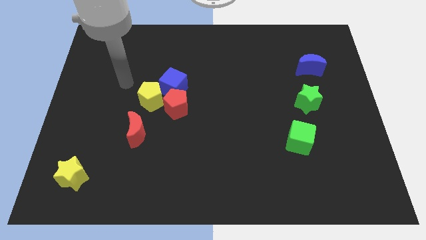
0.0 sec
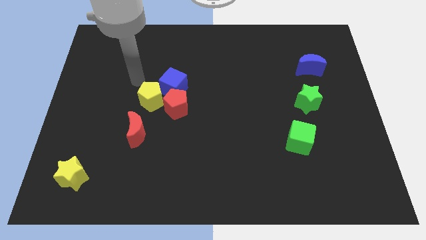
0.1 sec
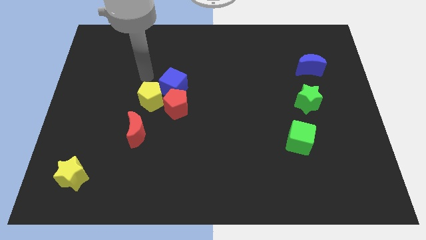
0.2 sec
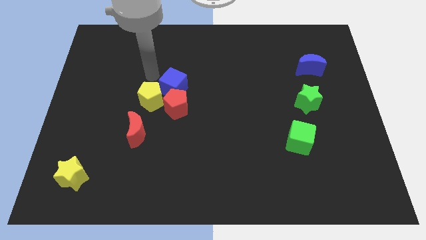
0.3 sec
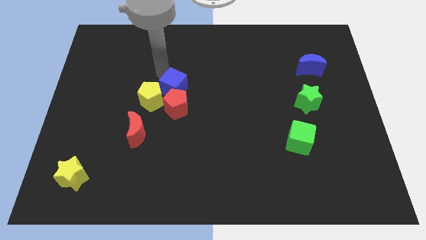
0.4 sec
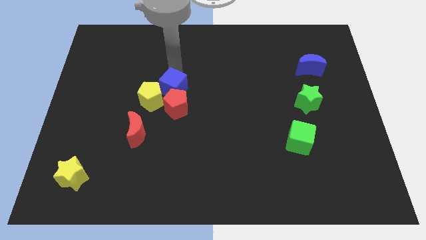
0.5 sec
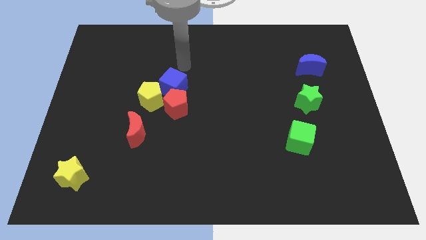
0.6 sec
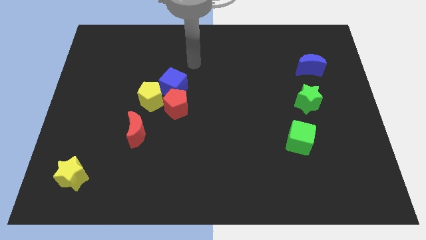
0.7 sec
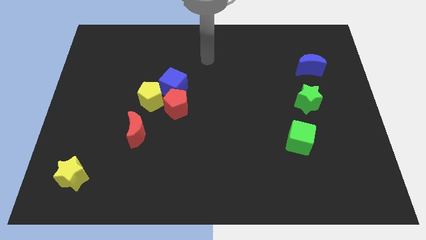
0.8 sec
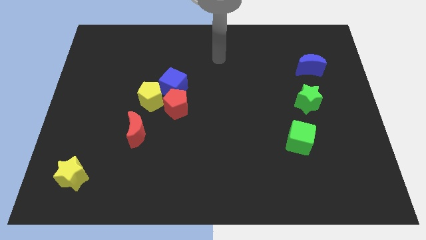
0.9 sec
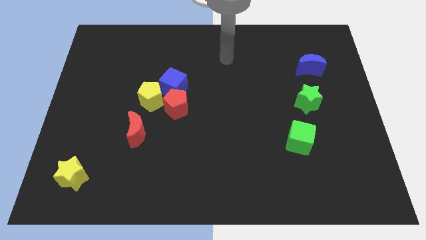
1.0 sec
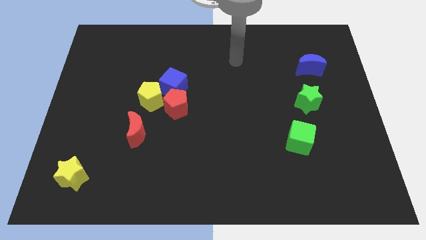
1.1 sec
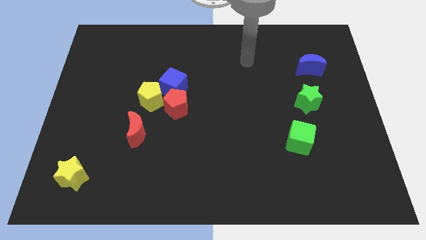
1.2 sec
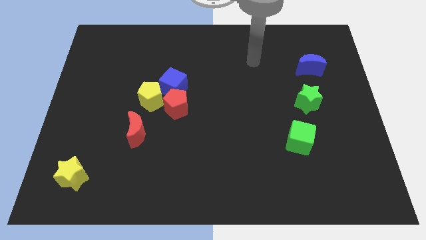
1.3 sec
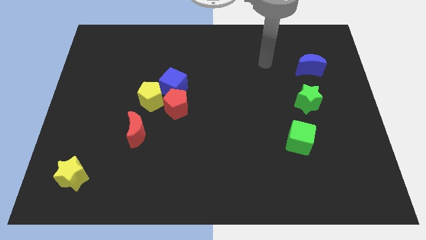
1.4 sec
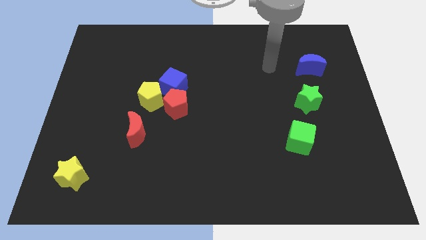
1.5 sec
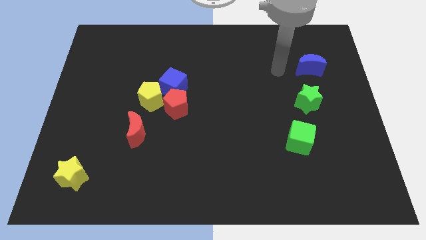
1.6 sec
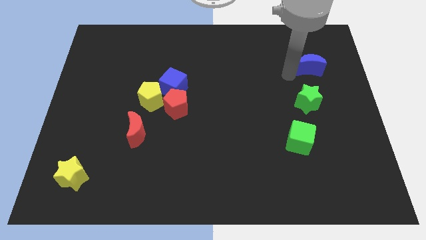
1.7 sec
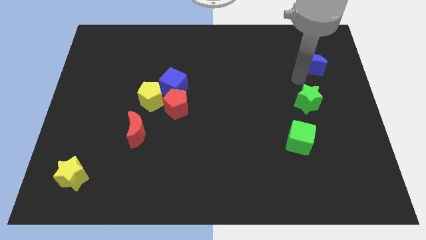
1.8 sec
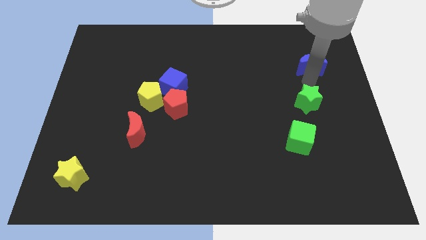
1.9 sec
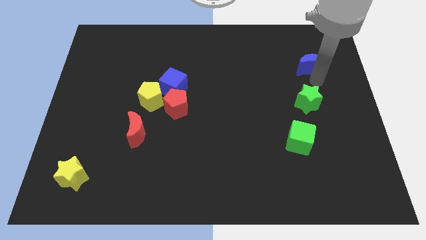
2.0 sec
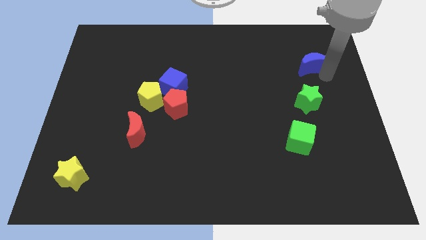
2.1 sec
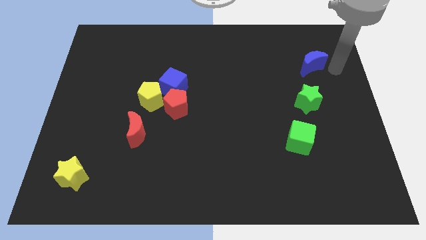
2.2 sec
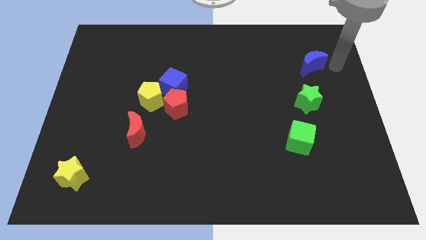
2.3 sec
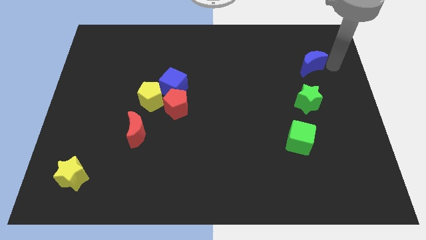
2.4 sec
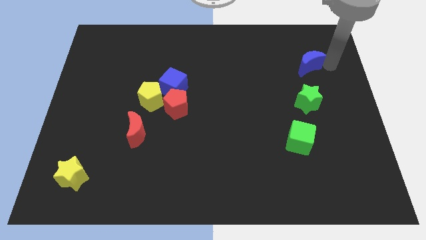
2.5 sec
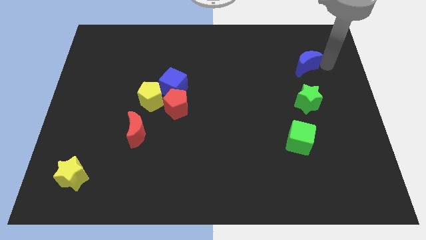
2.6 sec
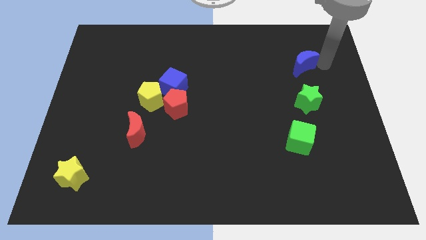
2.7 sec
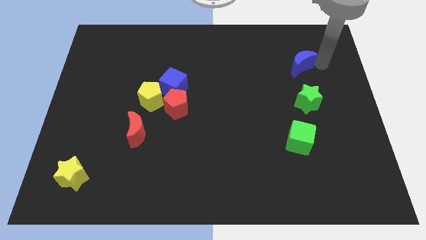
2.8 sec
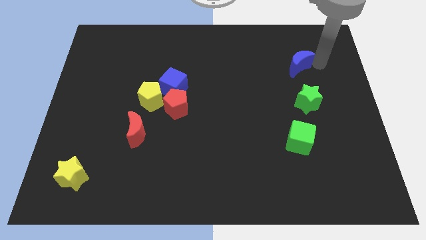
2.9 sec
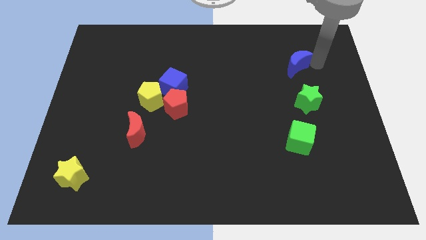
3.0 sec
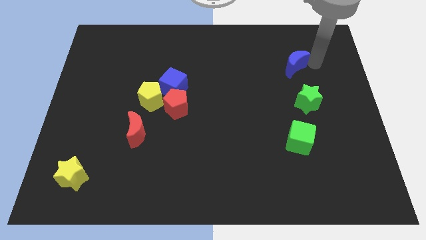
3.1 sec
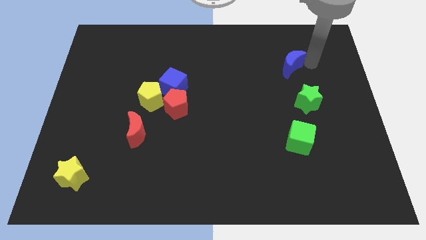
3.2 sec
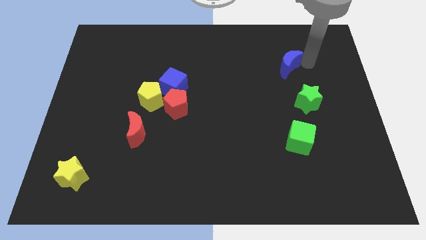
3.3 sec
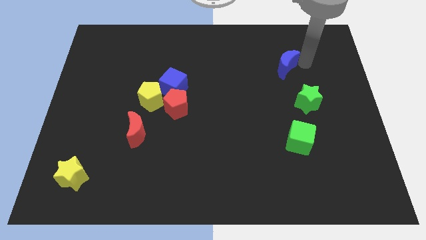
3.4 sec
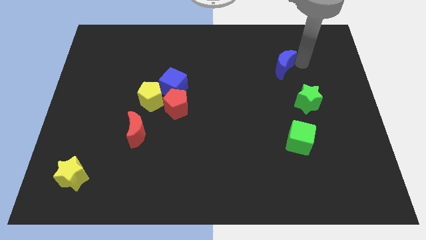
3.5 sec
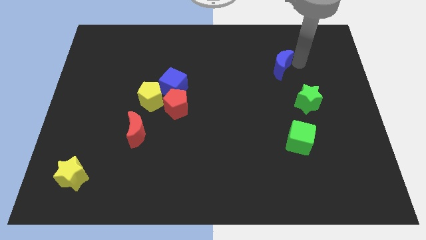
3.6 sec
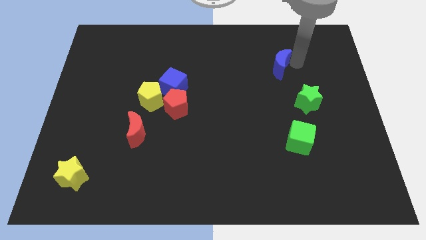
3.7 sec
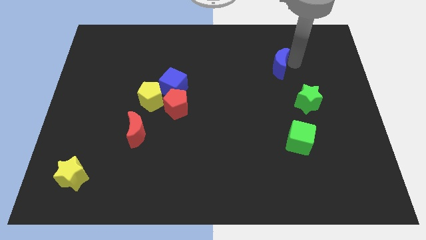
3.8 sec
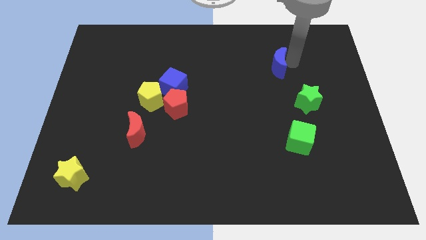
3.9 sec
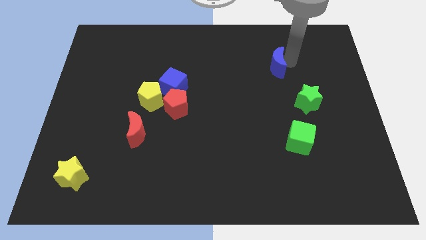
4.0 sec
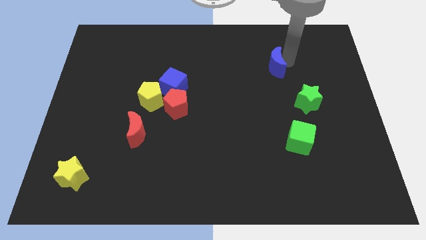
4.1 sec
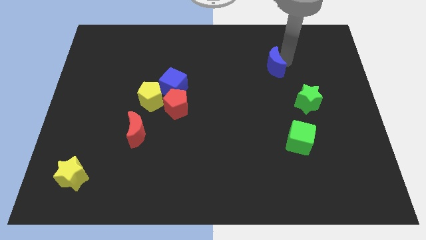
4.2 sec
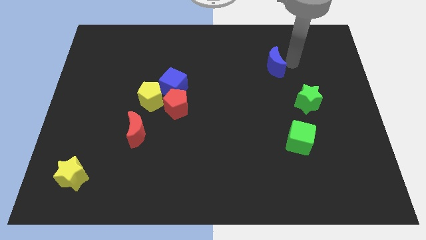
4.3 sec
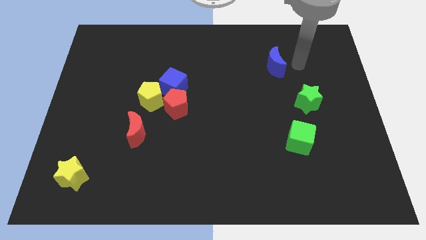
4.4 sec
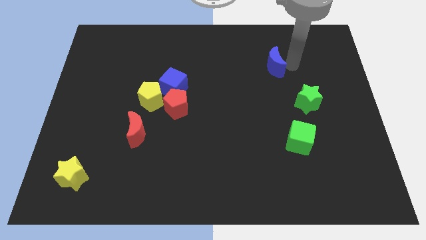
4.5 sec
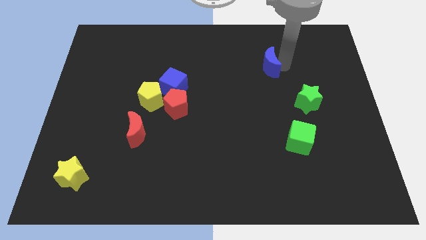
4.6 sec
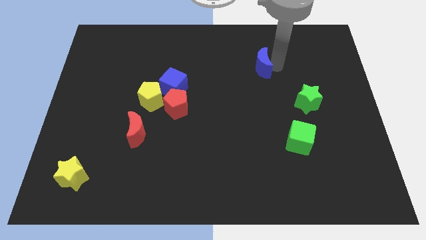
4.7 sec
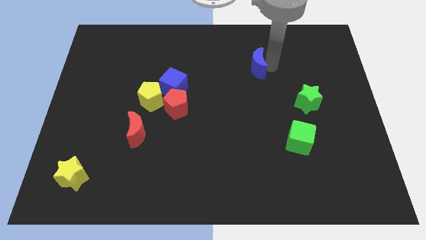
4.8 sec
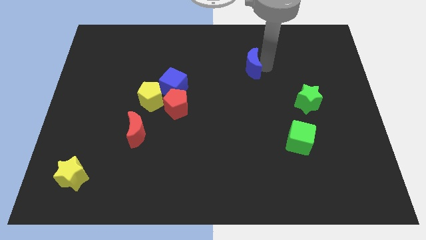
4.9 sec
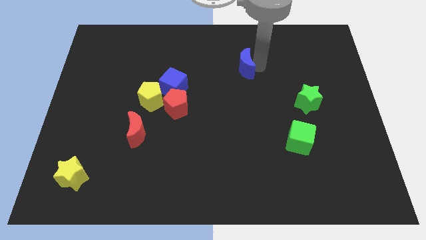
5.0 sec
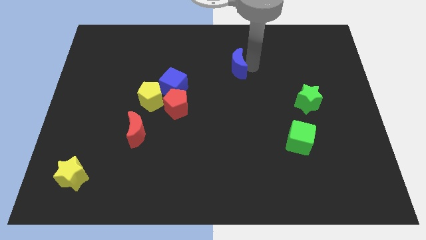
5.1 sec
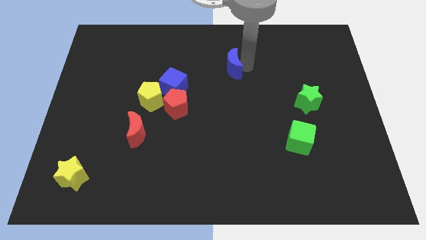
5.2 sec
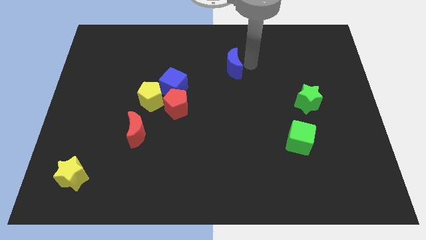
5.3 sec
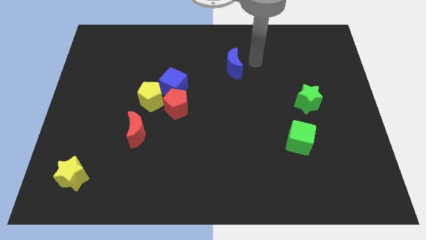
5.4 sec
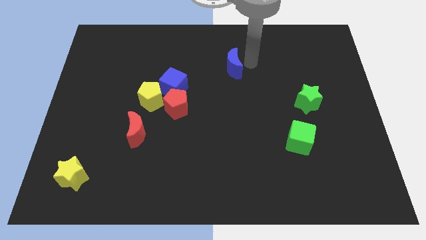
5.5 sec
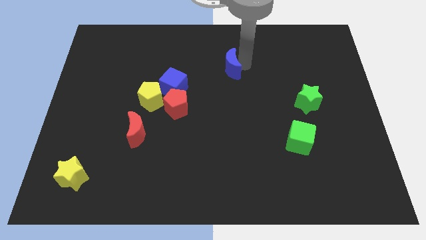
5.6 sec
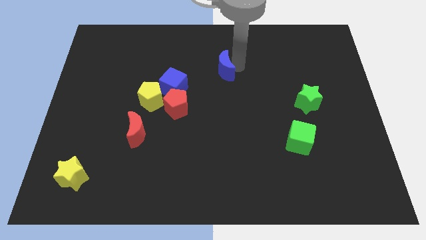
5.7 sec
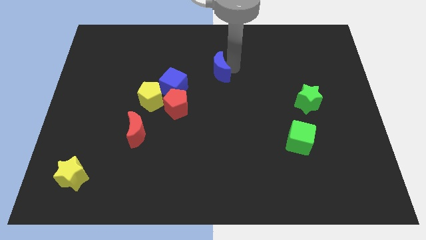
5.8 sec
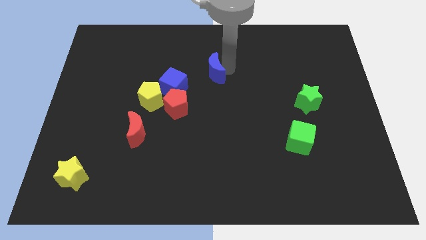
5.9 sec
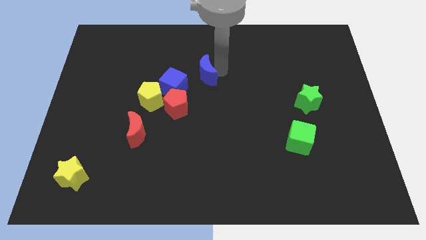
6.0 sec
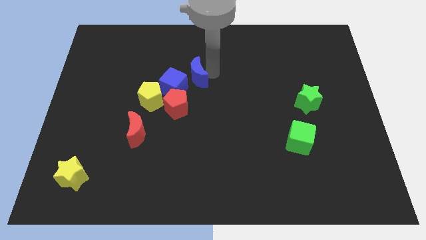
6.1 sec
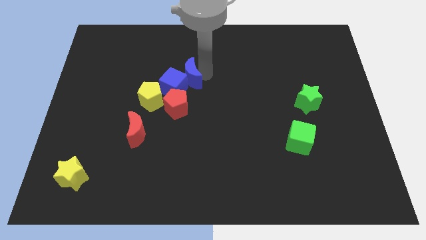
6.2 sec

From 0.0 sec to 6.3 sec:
slide the blue moon diagonally up and to the right of the yellow pentagon
